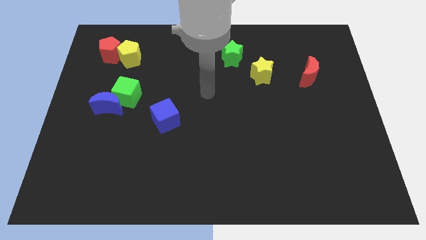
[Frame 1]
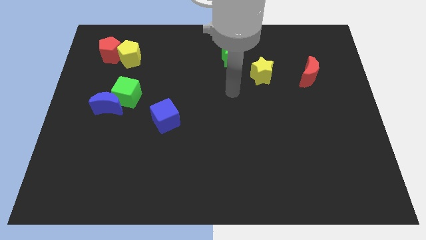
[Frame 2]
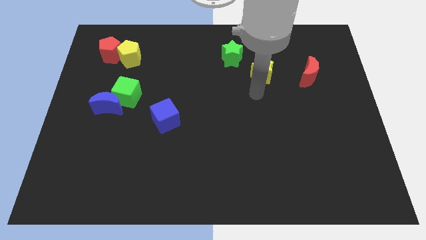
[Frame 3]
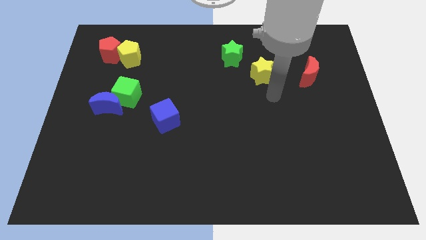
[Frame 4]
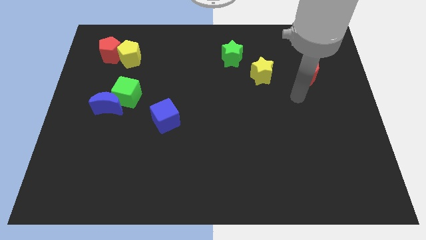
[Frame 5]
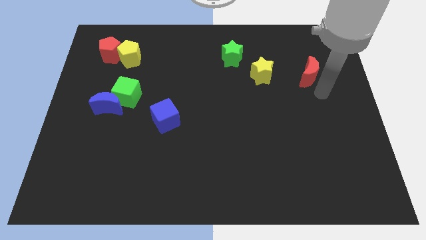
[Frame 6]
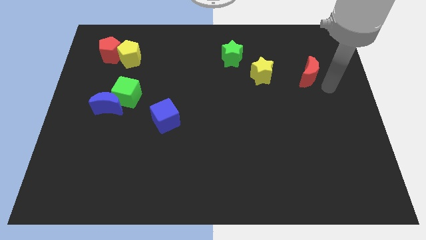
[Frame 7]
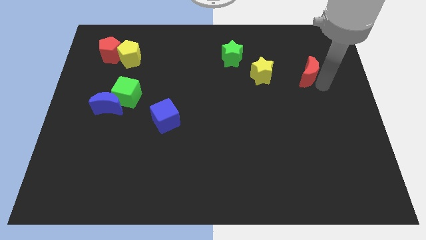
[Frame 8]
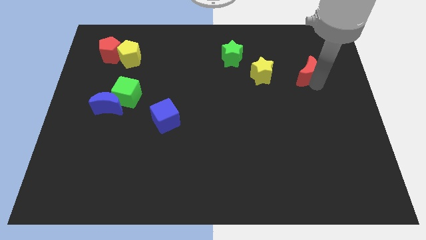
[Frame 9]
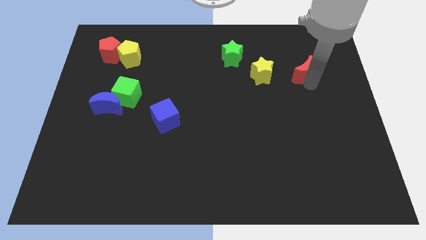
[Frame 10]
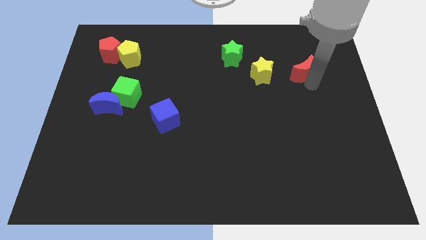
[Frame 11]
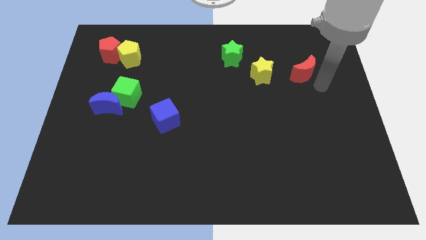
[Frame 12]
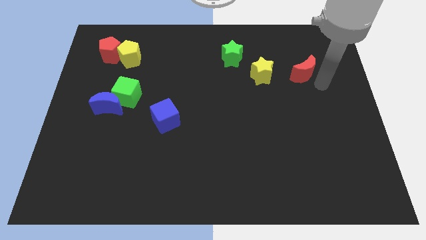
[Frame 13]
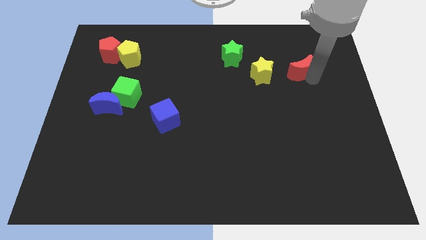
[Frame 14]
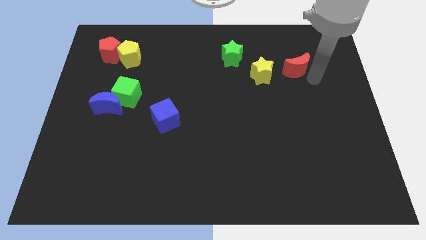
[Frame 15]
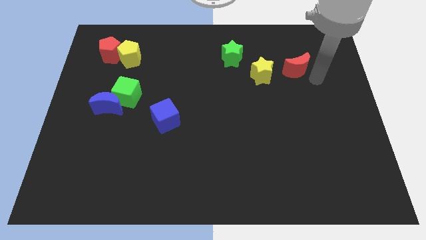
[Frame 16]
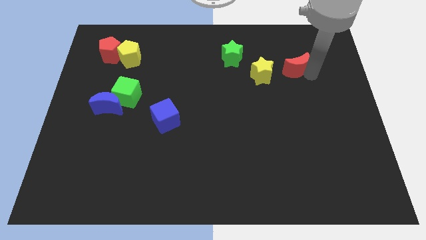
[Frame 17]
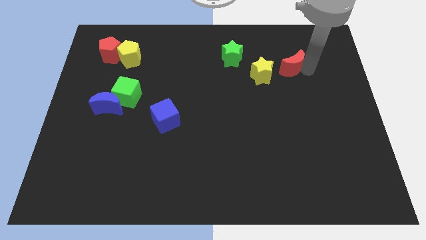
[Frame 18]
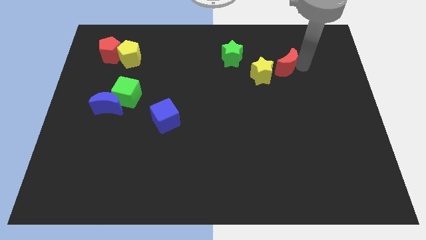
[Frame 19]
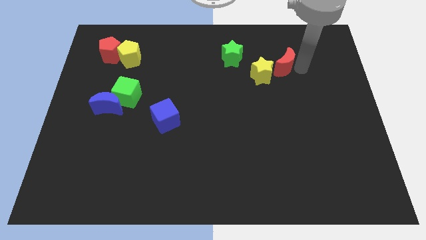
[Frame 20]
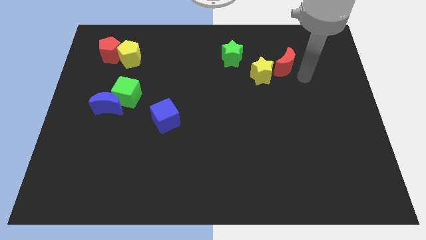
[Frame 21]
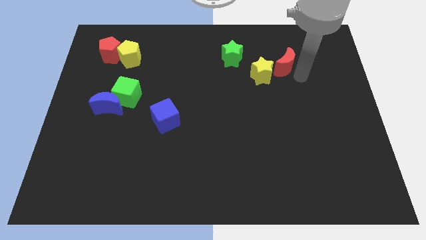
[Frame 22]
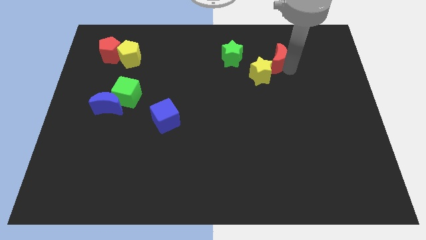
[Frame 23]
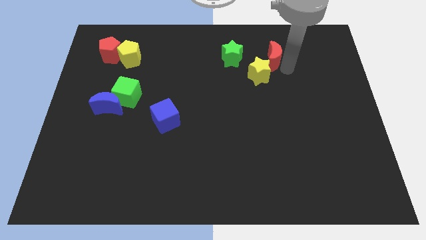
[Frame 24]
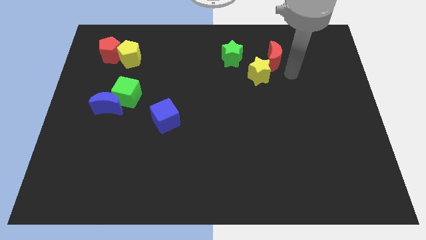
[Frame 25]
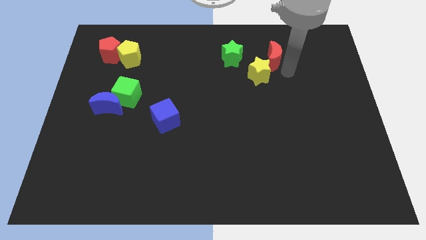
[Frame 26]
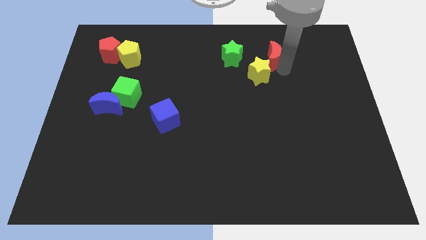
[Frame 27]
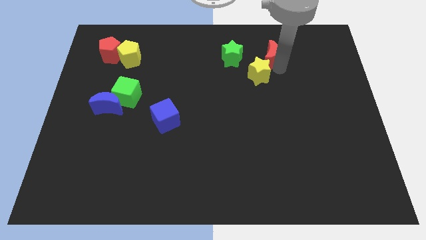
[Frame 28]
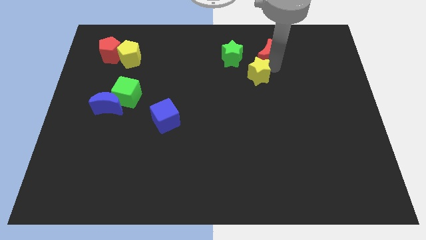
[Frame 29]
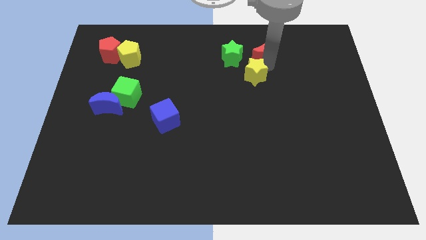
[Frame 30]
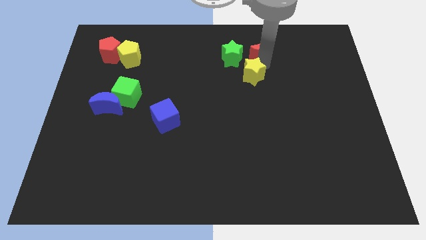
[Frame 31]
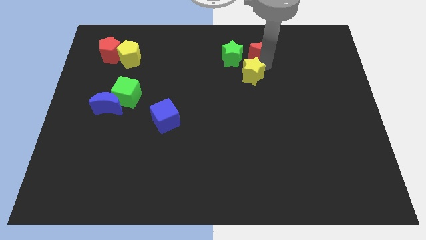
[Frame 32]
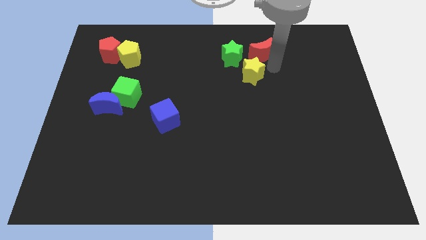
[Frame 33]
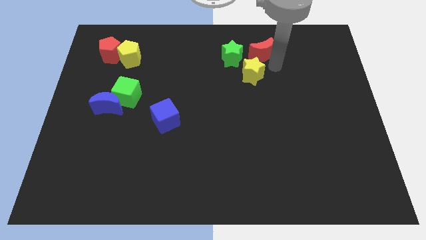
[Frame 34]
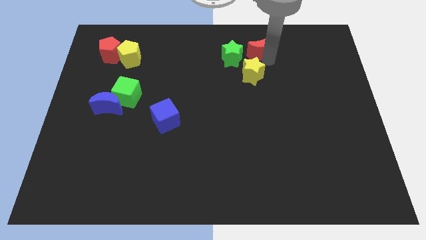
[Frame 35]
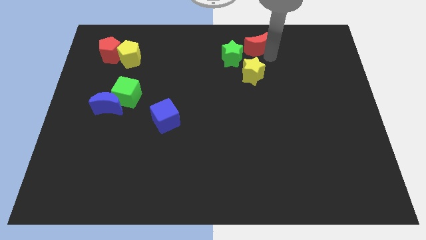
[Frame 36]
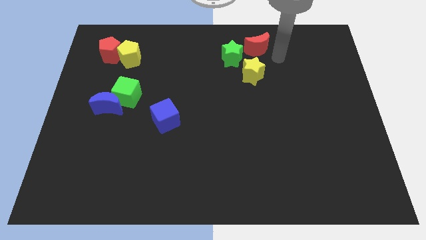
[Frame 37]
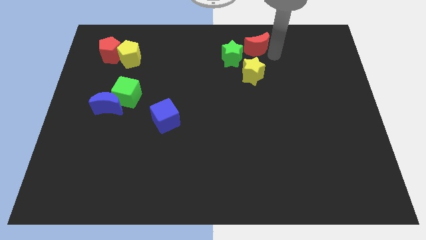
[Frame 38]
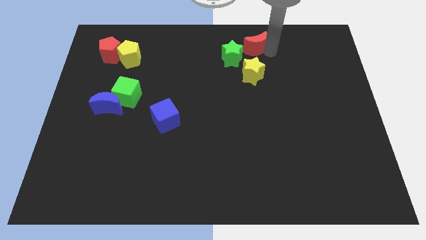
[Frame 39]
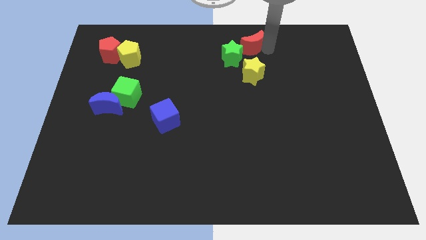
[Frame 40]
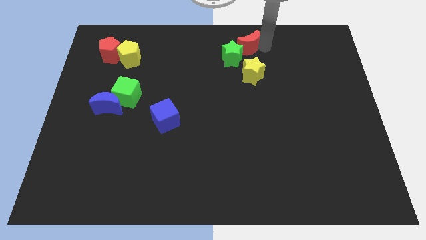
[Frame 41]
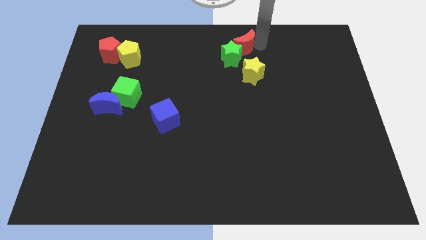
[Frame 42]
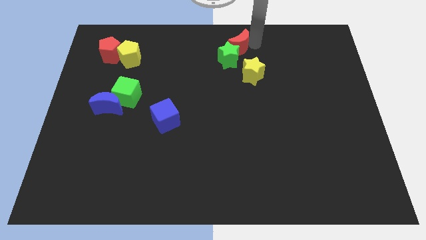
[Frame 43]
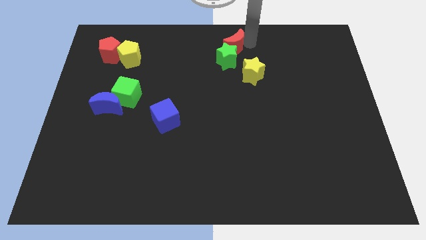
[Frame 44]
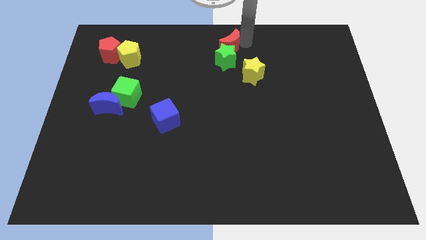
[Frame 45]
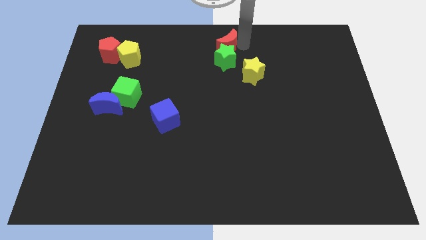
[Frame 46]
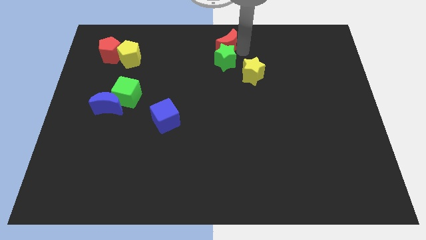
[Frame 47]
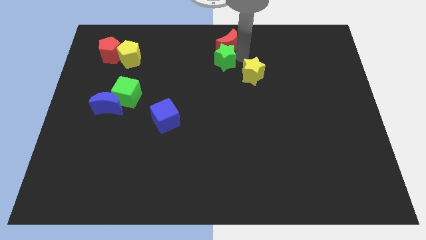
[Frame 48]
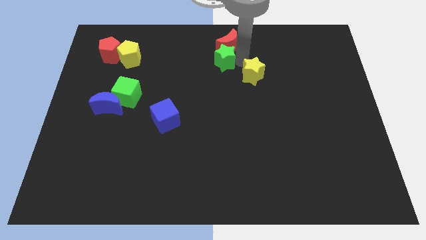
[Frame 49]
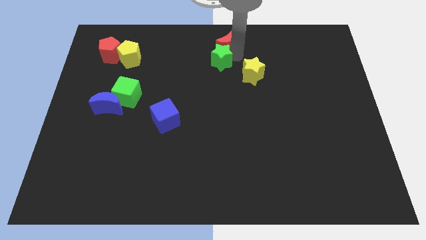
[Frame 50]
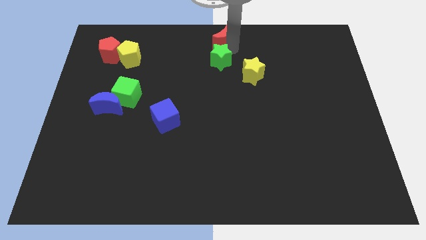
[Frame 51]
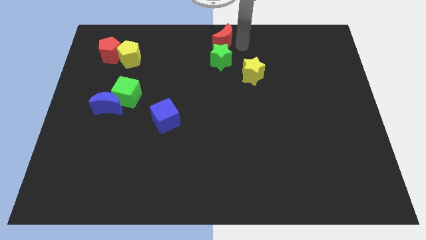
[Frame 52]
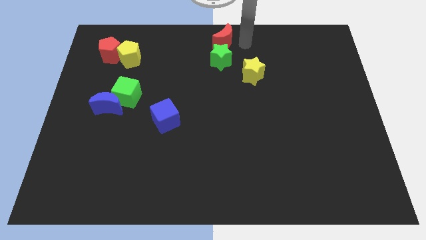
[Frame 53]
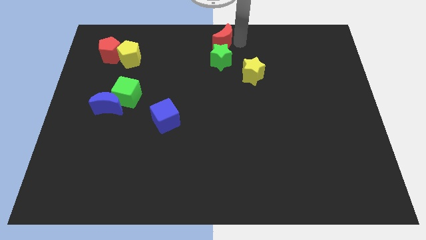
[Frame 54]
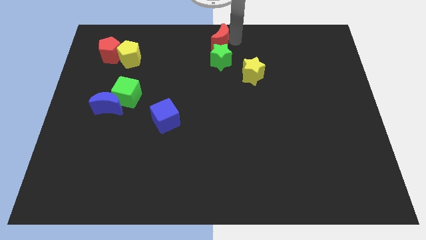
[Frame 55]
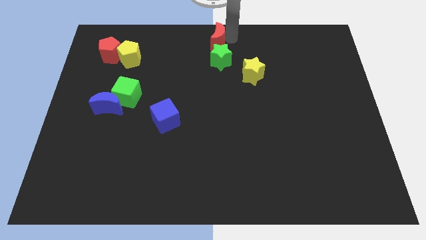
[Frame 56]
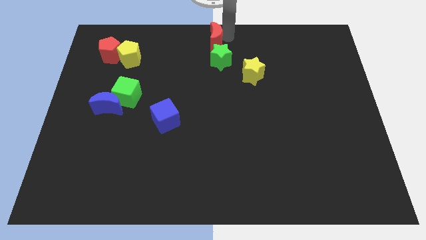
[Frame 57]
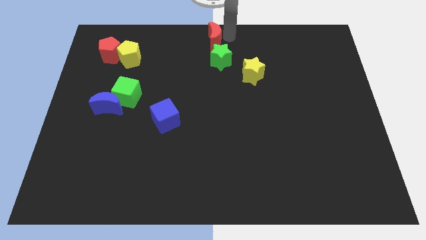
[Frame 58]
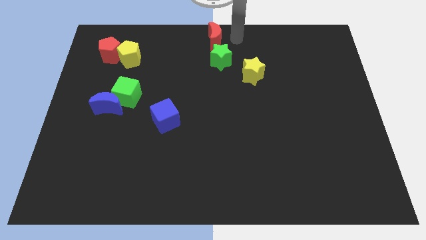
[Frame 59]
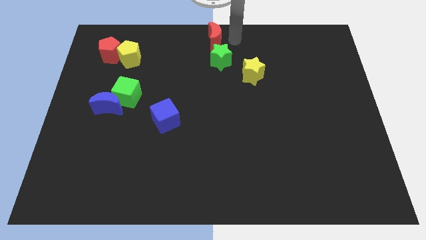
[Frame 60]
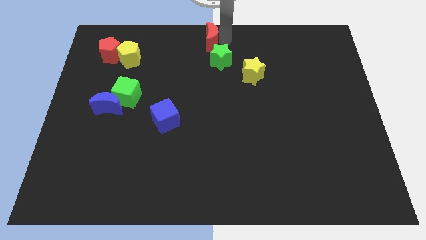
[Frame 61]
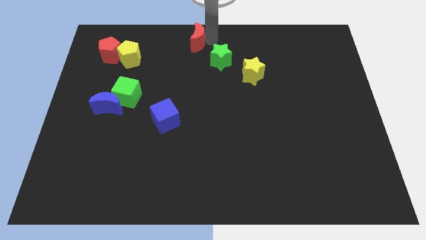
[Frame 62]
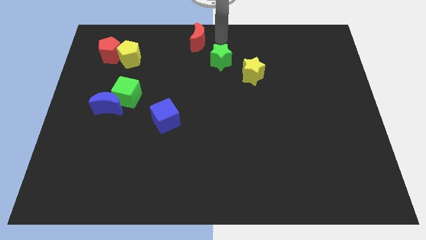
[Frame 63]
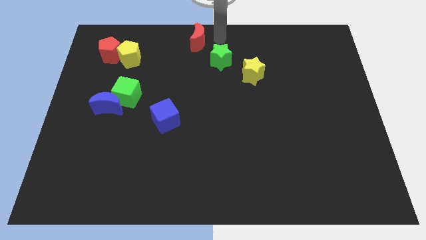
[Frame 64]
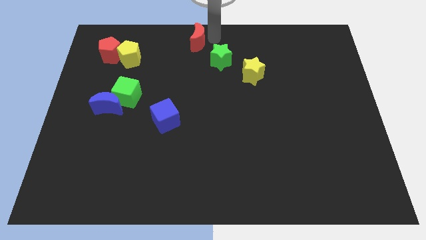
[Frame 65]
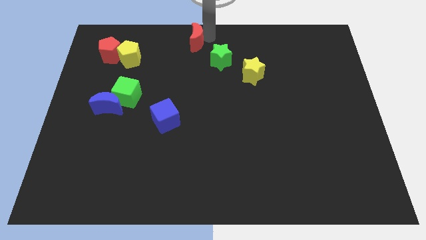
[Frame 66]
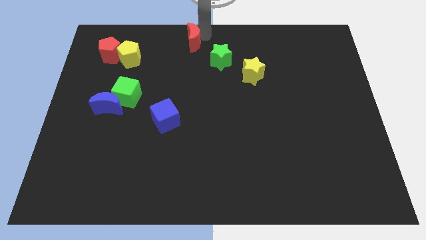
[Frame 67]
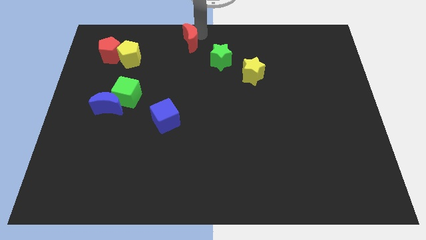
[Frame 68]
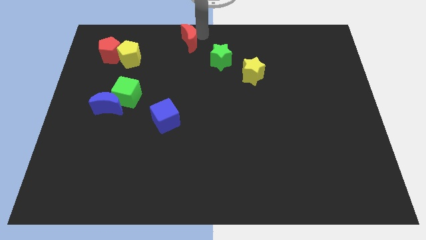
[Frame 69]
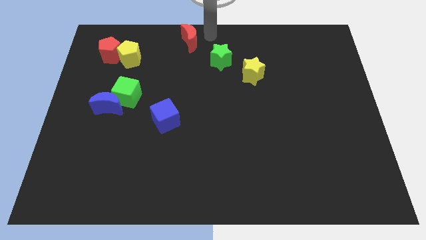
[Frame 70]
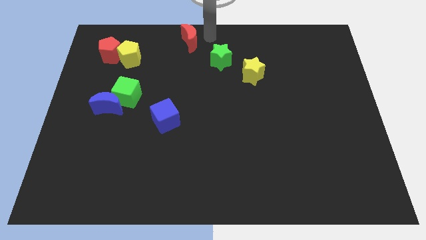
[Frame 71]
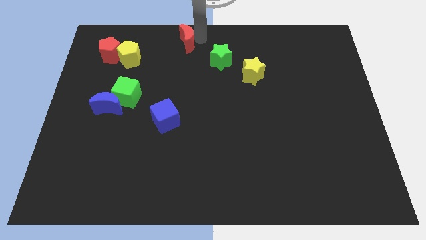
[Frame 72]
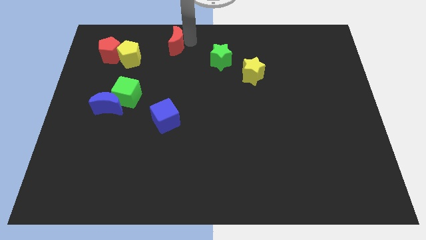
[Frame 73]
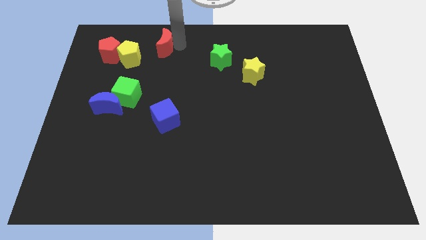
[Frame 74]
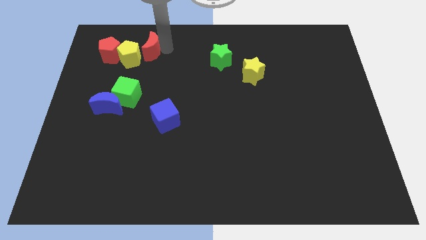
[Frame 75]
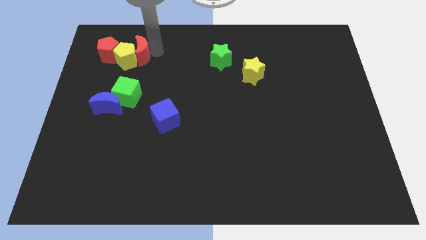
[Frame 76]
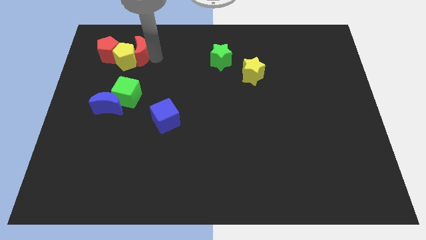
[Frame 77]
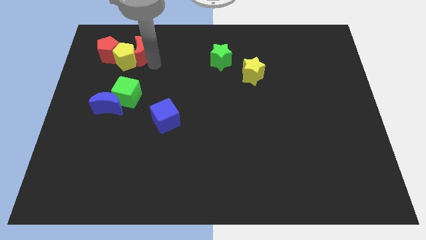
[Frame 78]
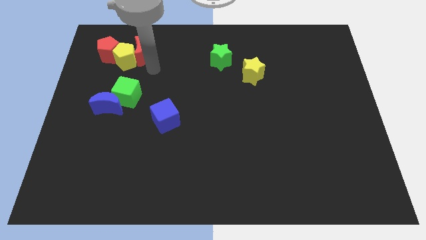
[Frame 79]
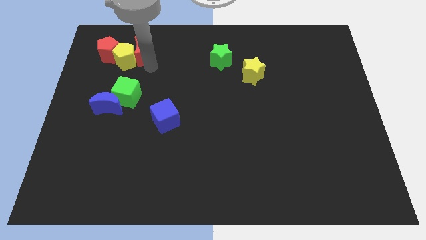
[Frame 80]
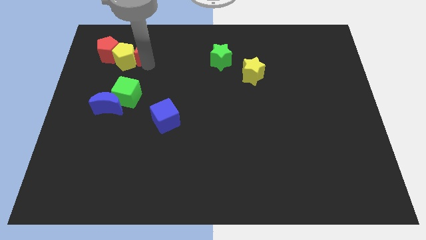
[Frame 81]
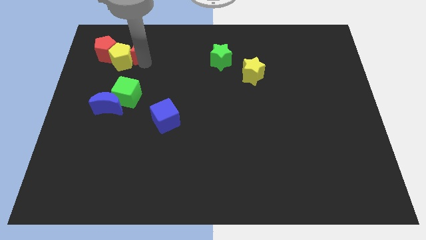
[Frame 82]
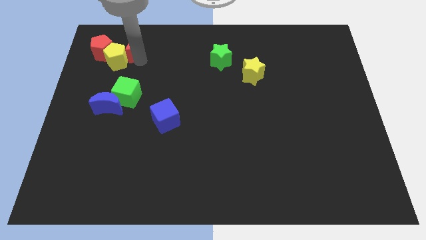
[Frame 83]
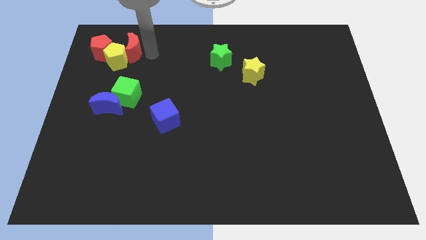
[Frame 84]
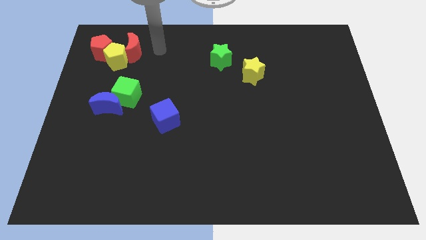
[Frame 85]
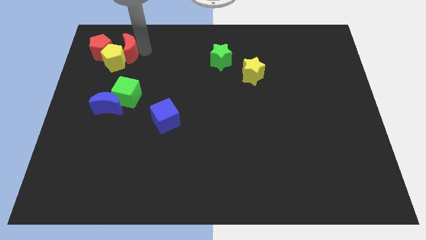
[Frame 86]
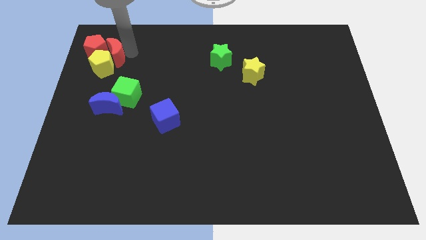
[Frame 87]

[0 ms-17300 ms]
push the red moon next to the red pentagon
